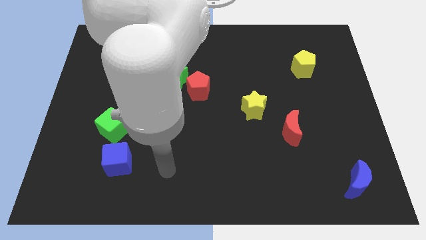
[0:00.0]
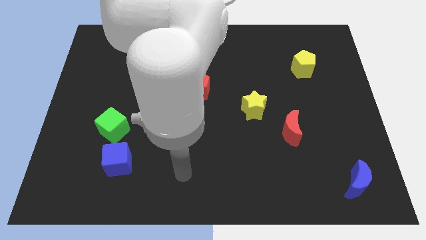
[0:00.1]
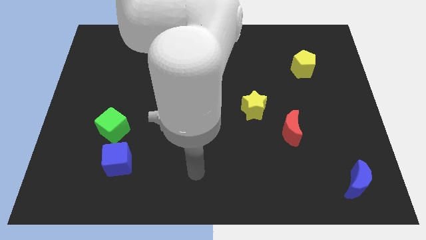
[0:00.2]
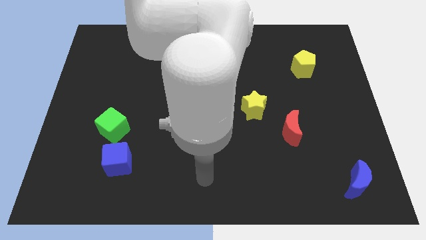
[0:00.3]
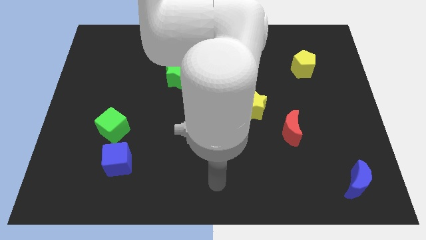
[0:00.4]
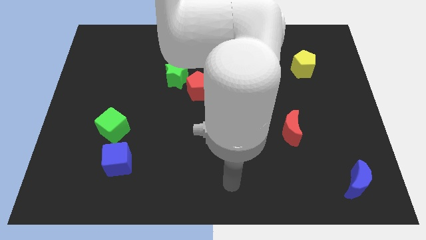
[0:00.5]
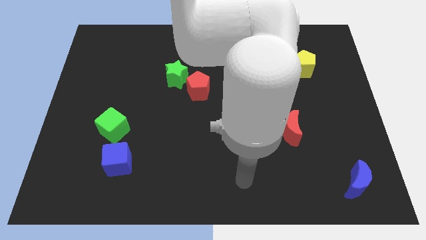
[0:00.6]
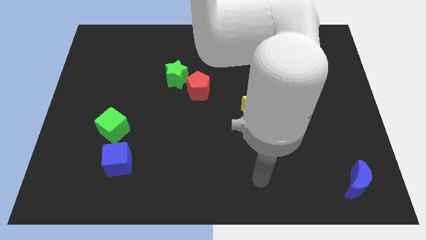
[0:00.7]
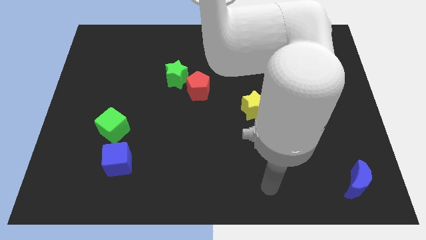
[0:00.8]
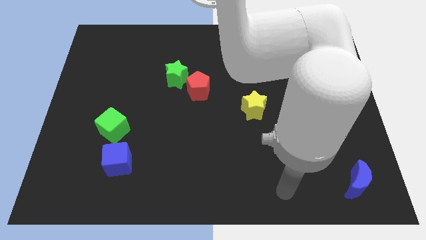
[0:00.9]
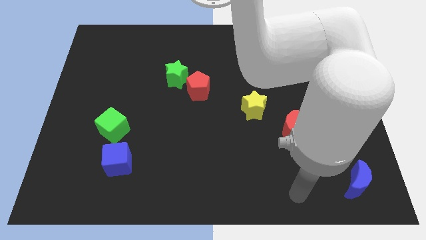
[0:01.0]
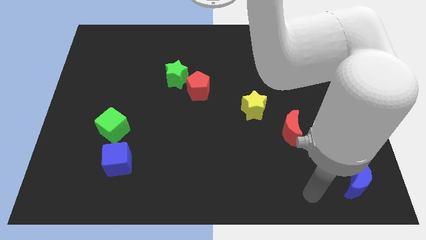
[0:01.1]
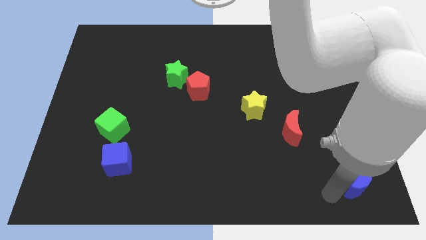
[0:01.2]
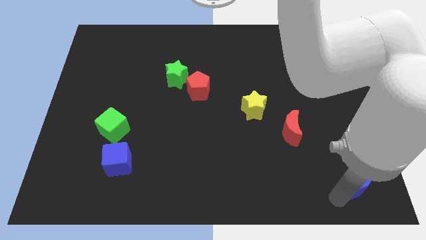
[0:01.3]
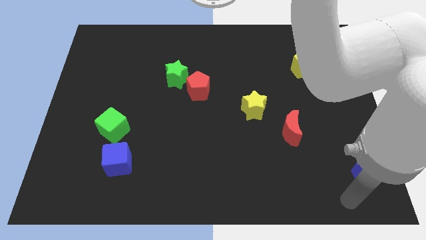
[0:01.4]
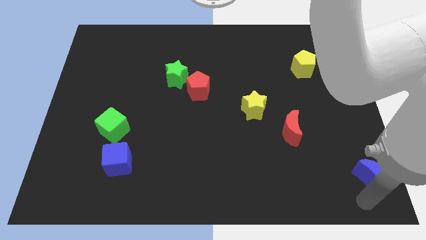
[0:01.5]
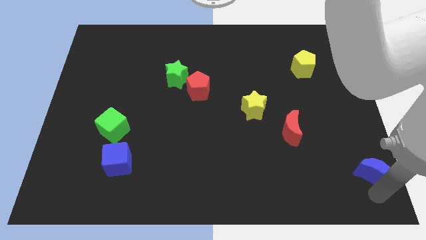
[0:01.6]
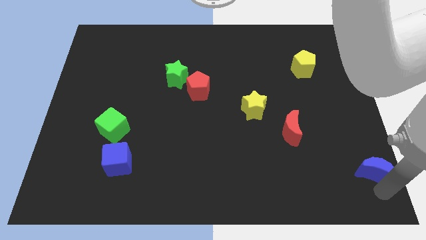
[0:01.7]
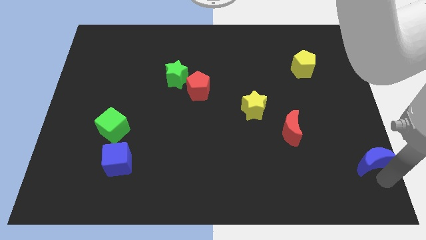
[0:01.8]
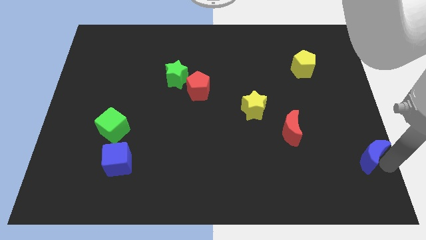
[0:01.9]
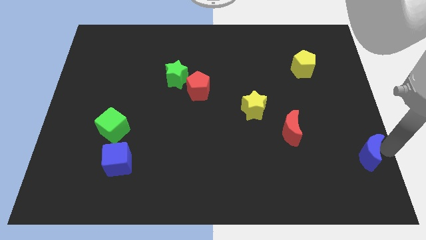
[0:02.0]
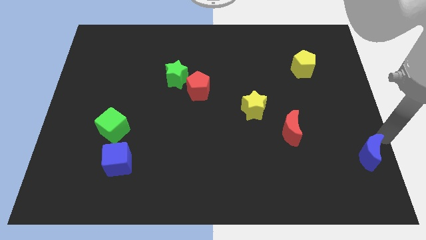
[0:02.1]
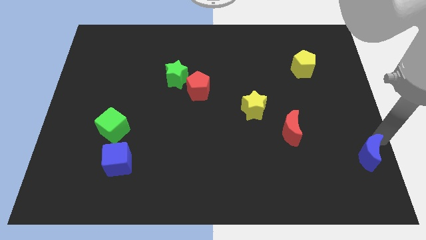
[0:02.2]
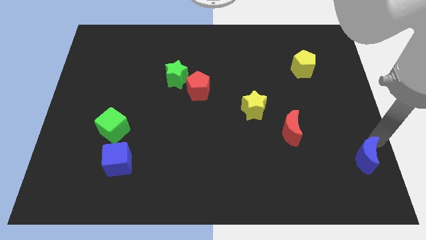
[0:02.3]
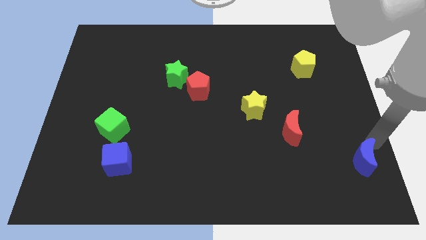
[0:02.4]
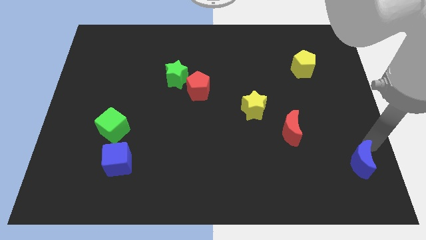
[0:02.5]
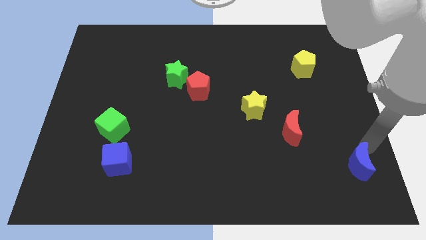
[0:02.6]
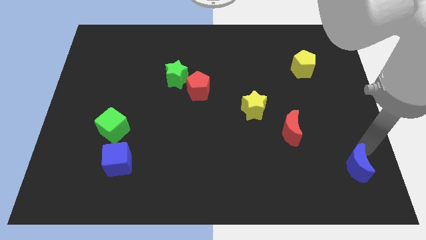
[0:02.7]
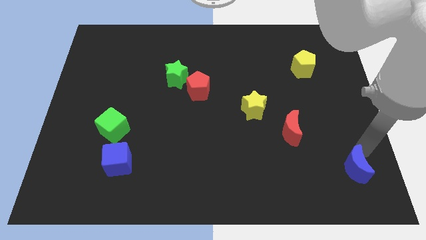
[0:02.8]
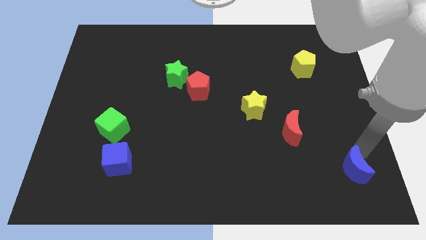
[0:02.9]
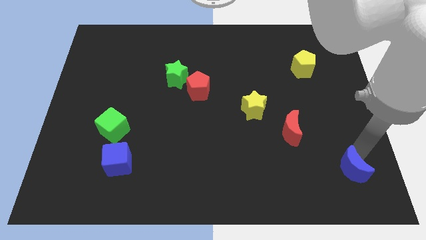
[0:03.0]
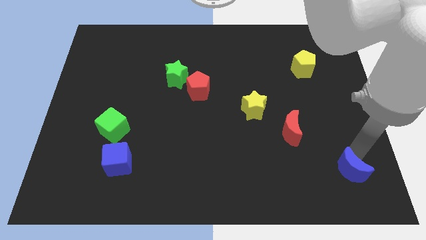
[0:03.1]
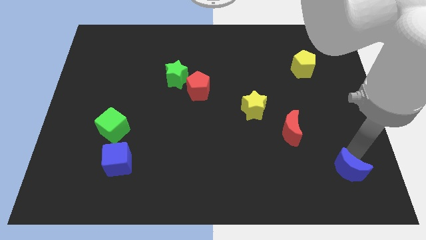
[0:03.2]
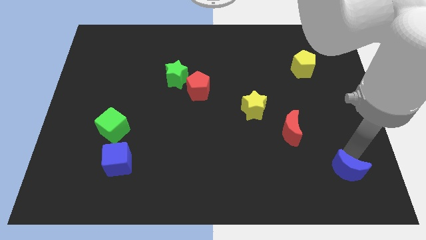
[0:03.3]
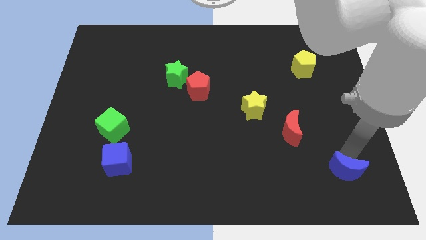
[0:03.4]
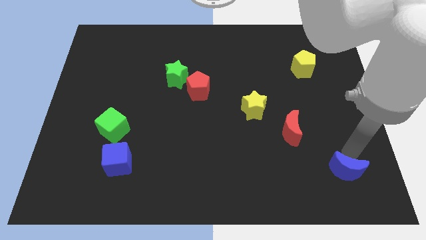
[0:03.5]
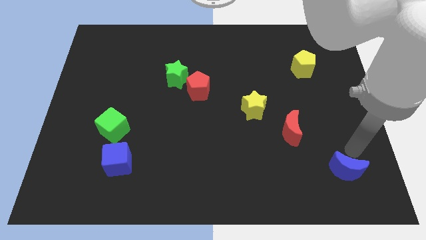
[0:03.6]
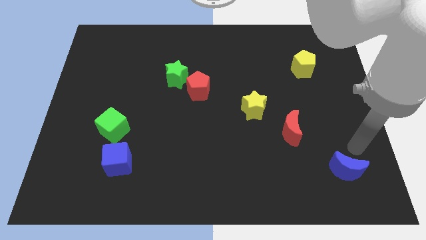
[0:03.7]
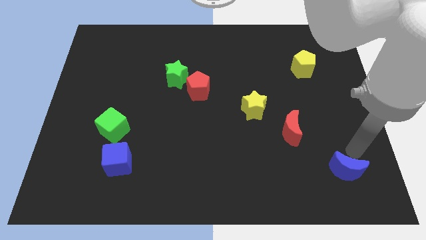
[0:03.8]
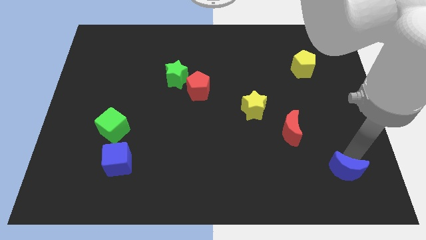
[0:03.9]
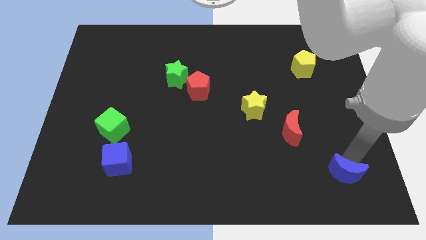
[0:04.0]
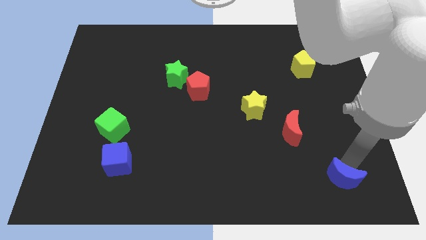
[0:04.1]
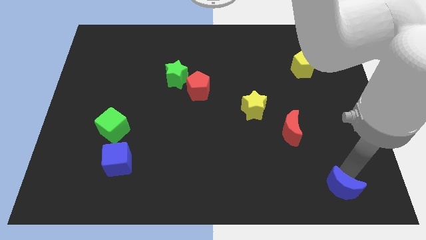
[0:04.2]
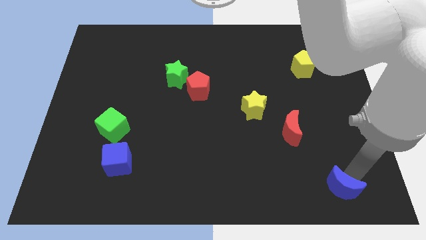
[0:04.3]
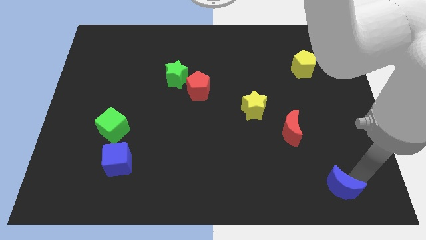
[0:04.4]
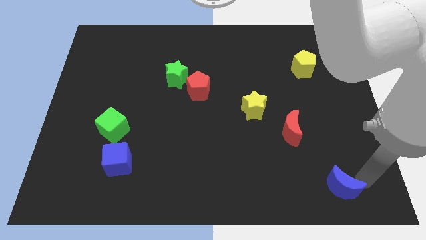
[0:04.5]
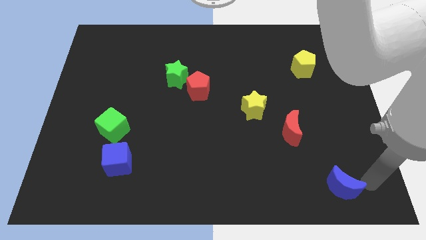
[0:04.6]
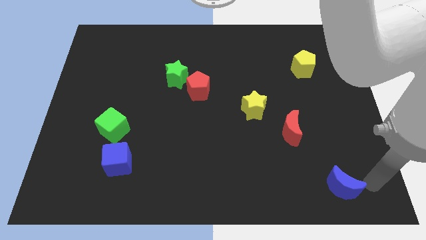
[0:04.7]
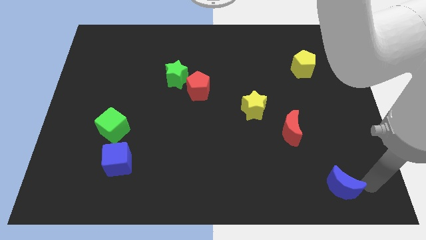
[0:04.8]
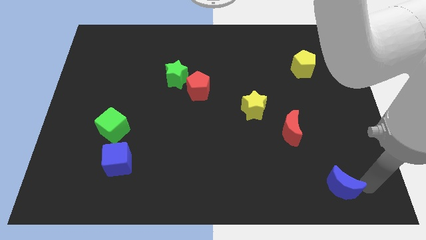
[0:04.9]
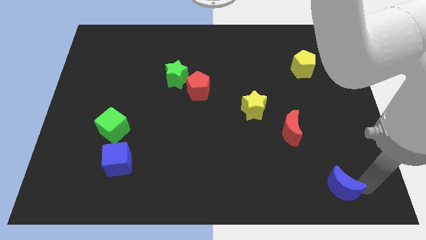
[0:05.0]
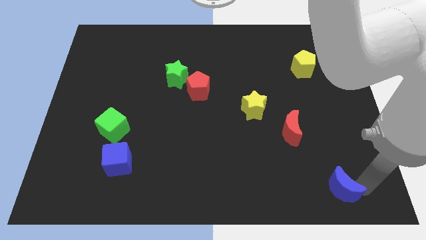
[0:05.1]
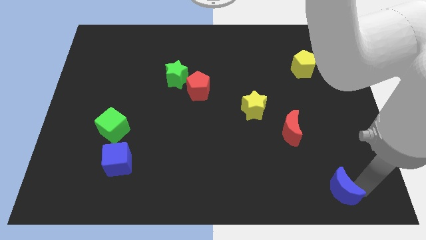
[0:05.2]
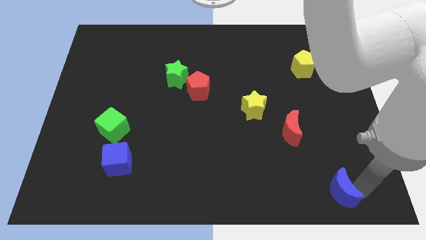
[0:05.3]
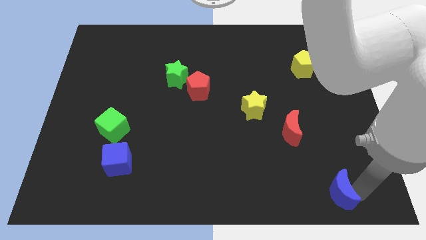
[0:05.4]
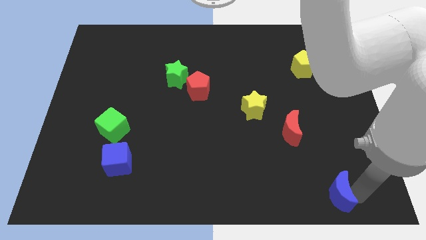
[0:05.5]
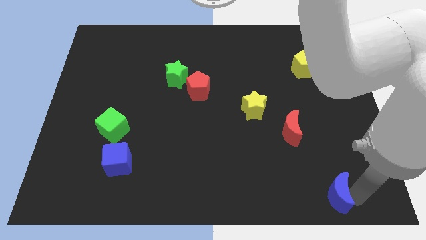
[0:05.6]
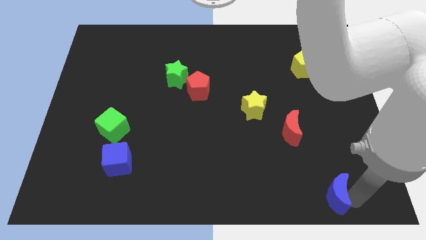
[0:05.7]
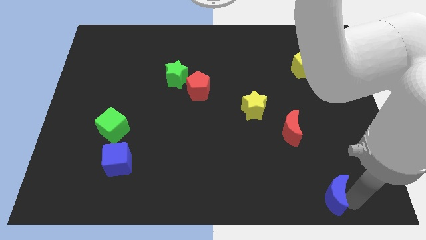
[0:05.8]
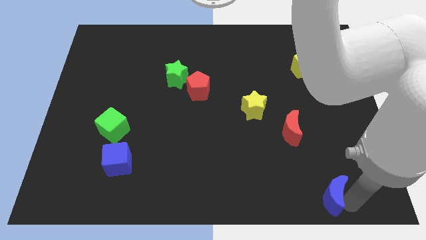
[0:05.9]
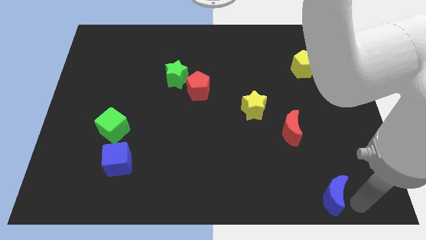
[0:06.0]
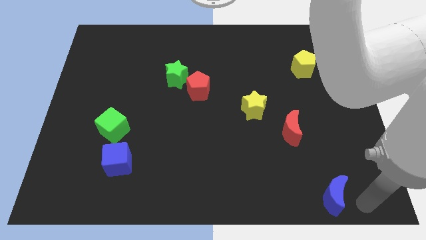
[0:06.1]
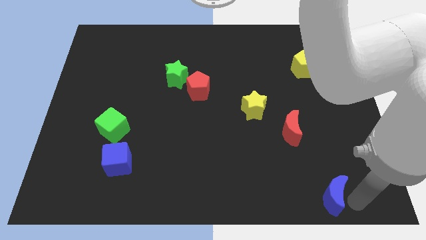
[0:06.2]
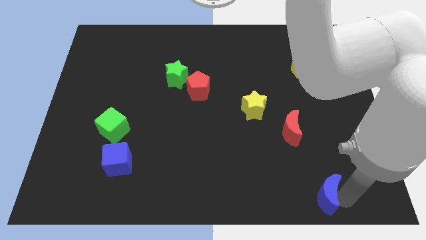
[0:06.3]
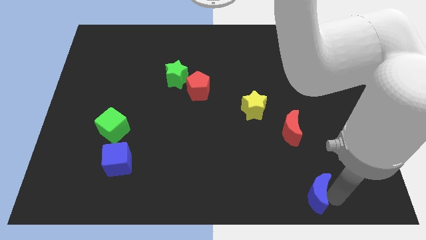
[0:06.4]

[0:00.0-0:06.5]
move the blue moon a little to the left

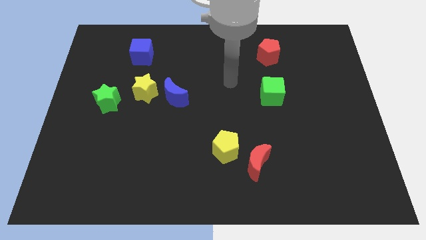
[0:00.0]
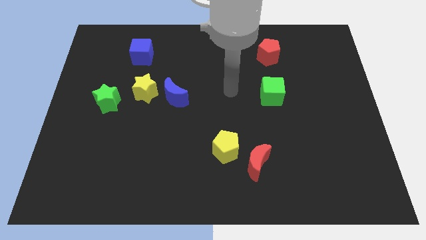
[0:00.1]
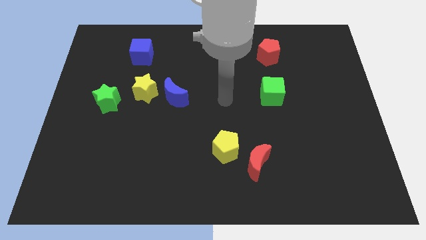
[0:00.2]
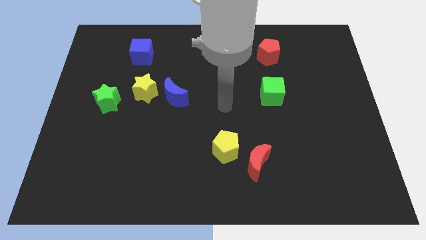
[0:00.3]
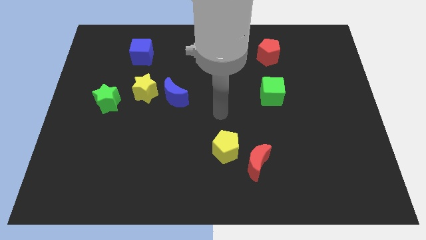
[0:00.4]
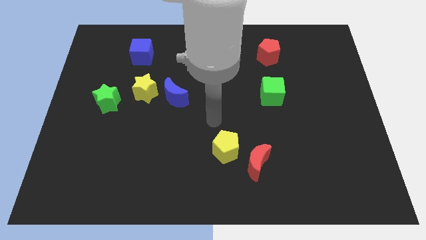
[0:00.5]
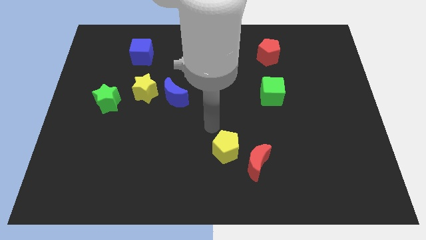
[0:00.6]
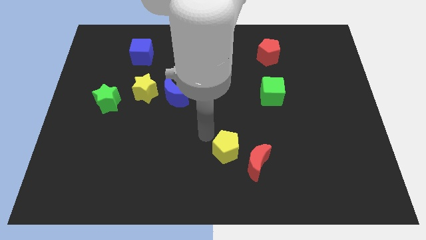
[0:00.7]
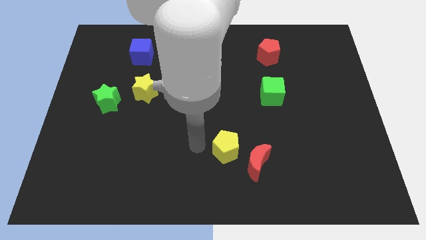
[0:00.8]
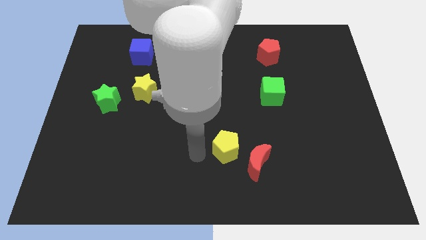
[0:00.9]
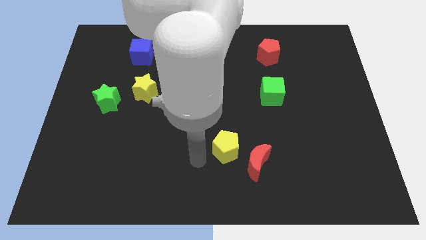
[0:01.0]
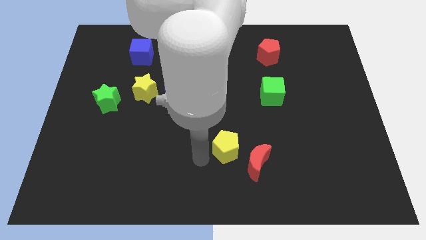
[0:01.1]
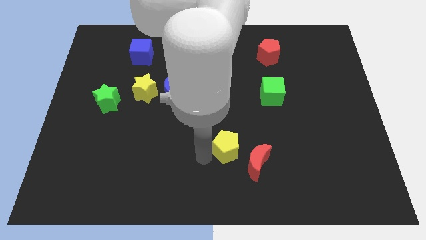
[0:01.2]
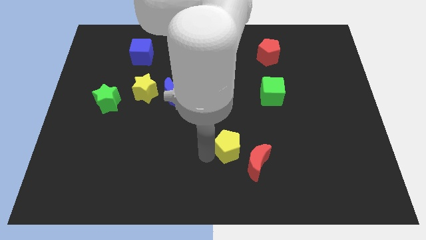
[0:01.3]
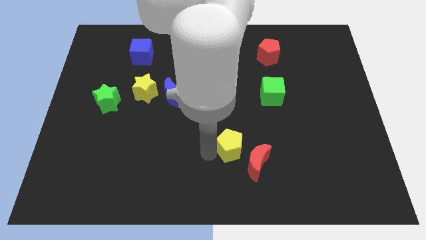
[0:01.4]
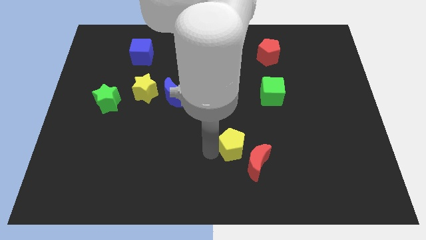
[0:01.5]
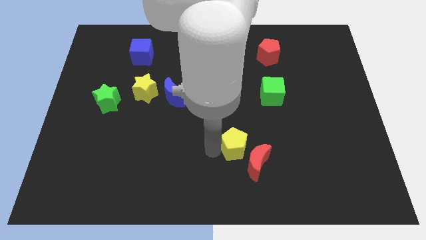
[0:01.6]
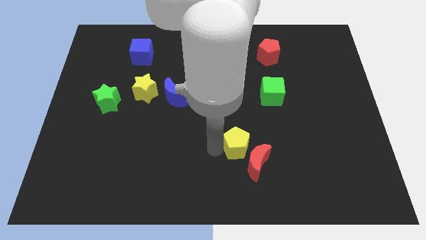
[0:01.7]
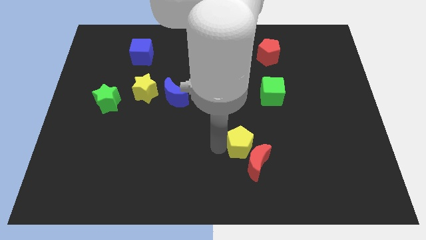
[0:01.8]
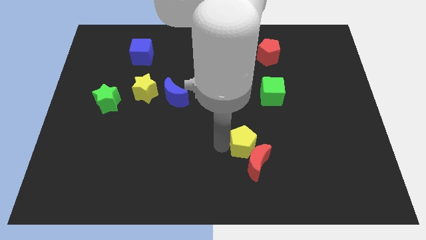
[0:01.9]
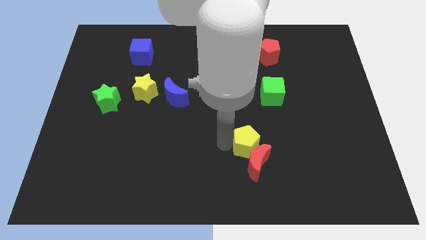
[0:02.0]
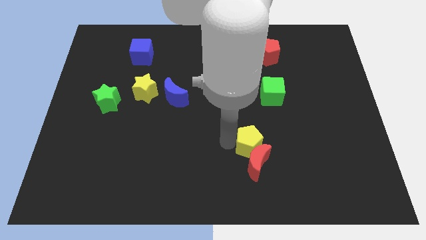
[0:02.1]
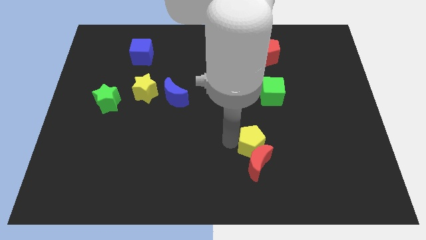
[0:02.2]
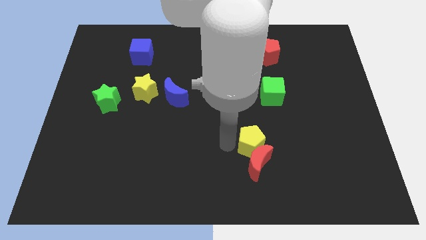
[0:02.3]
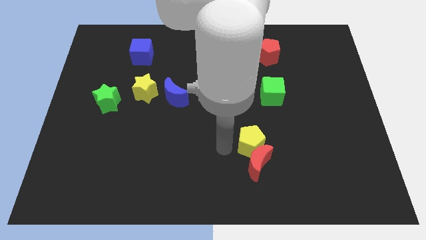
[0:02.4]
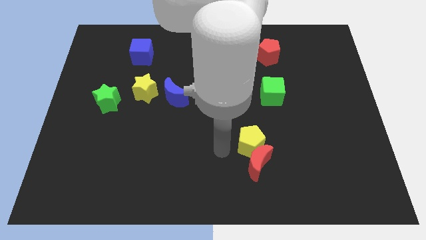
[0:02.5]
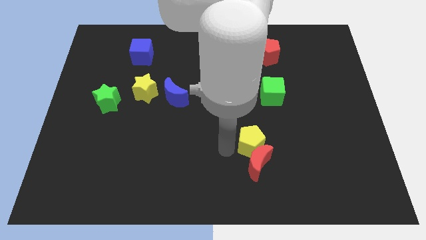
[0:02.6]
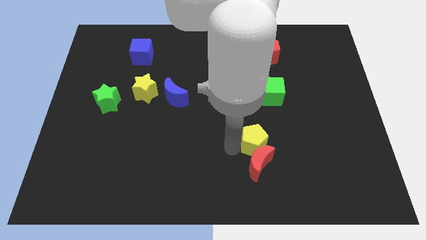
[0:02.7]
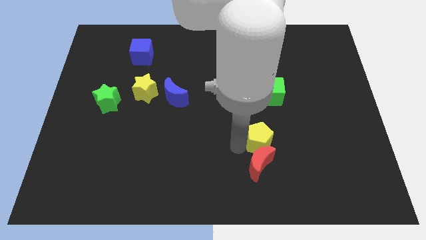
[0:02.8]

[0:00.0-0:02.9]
move the yellow pentagon a little bit to the right
